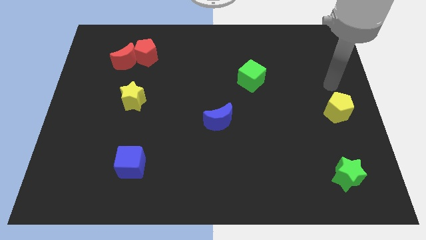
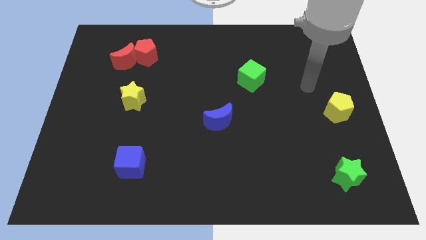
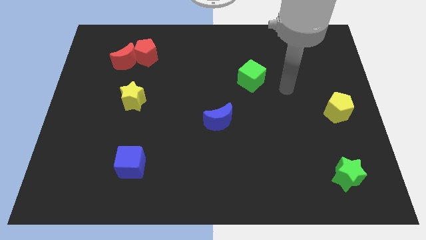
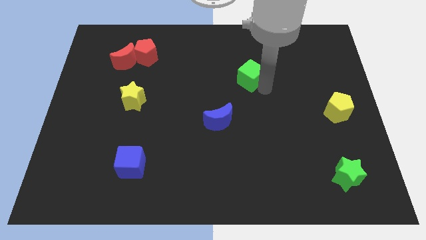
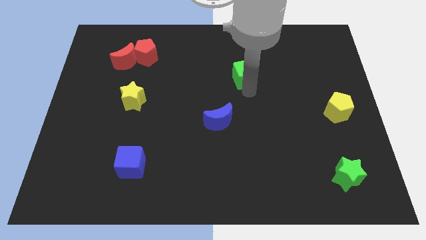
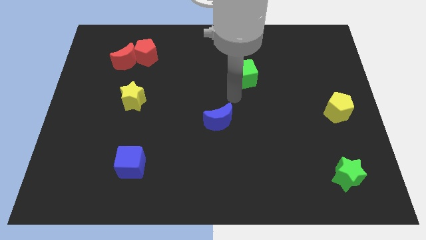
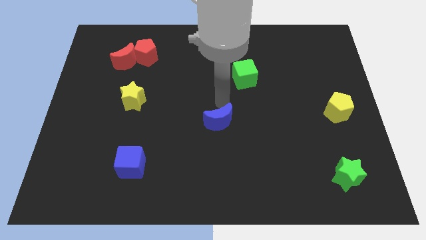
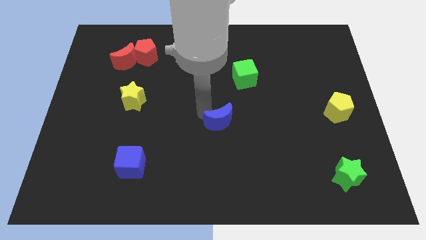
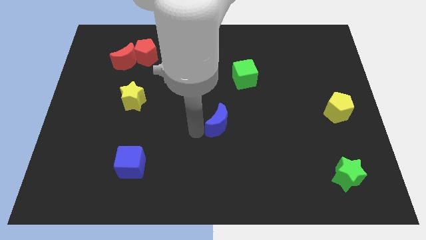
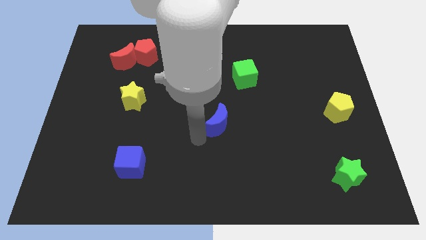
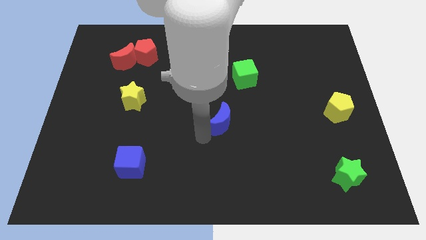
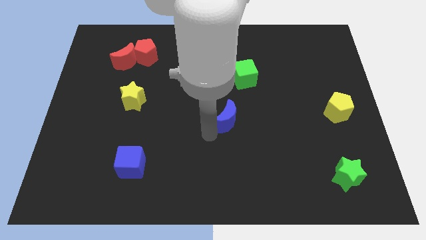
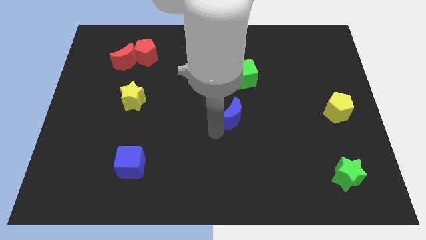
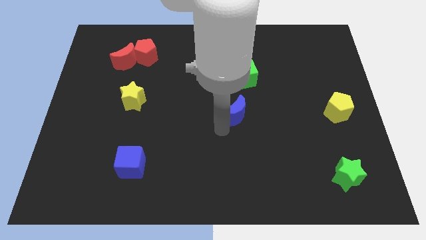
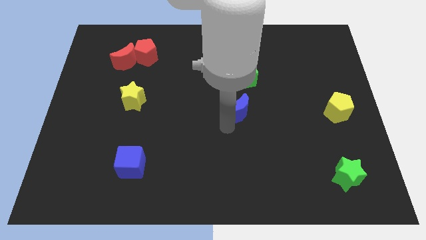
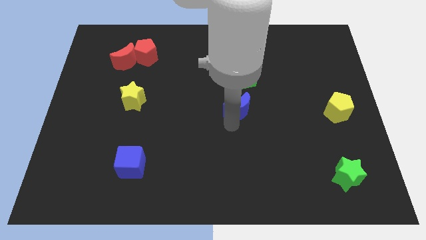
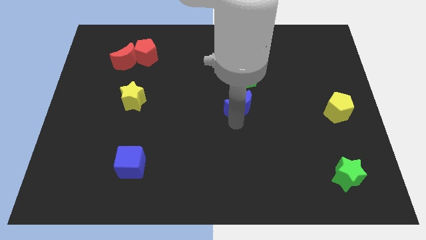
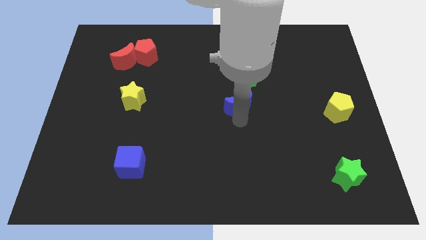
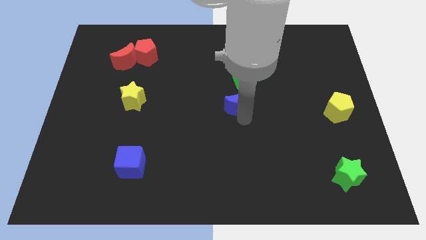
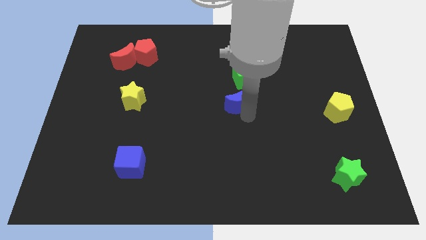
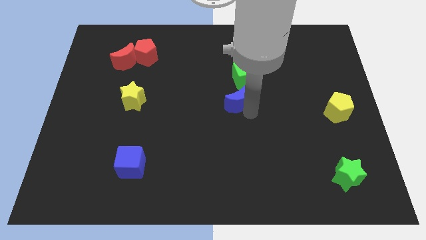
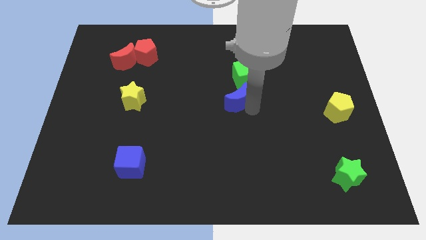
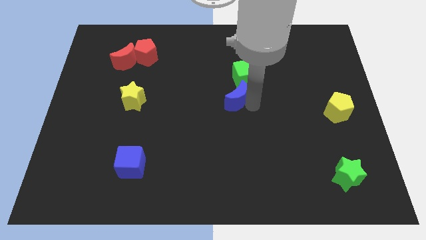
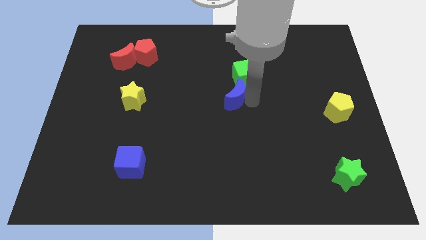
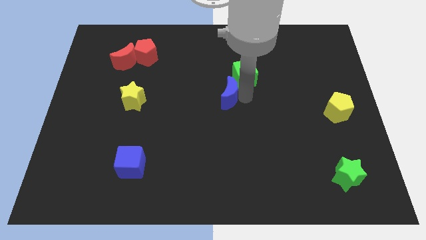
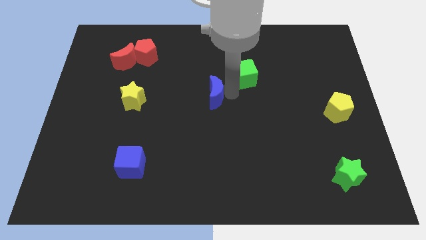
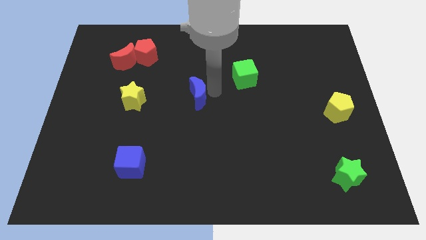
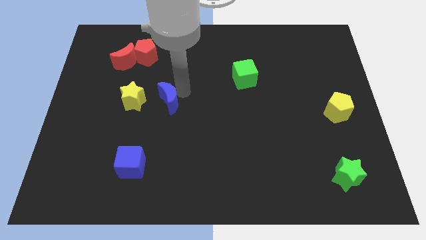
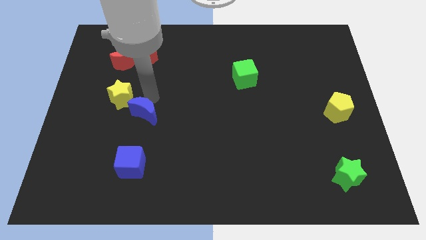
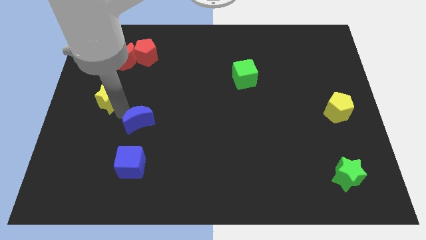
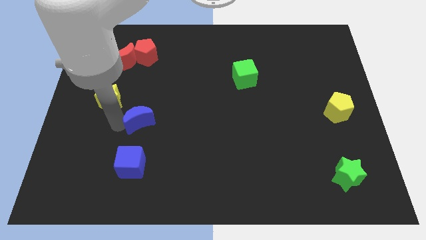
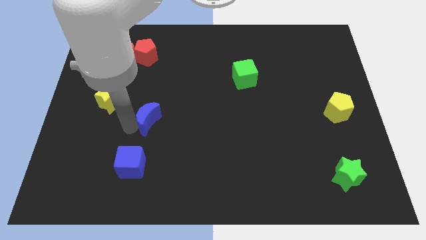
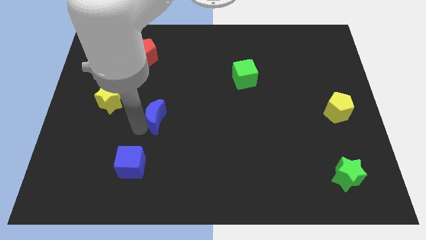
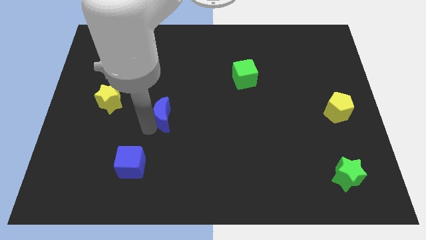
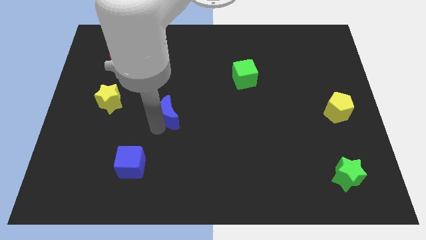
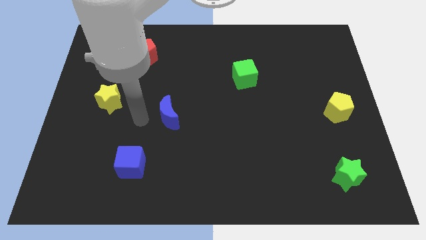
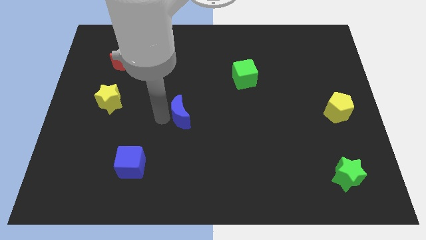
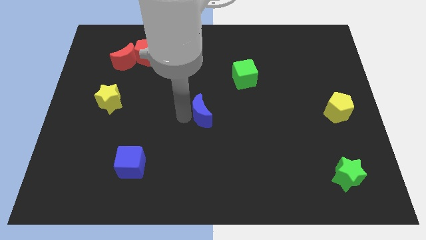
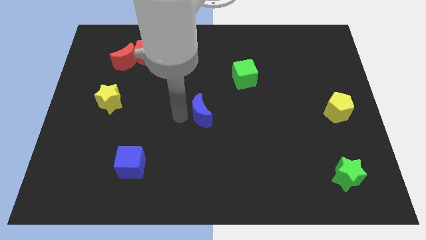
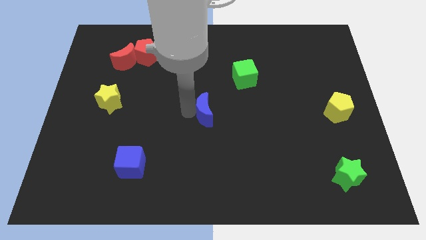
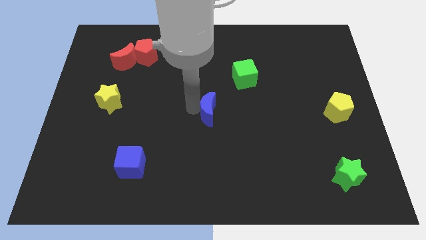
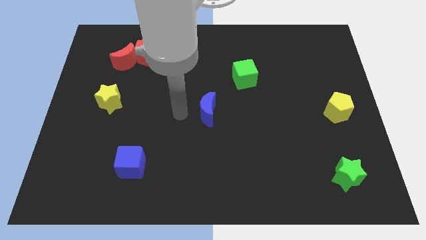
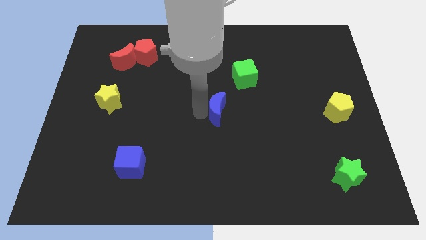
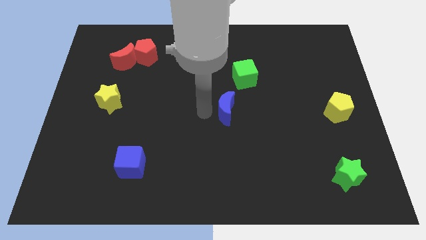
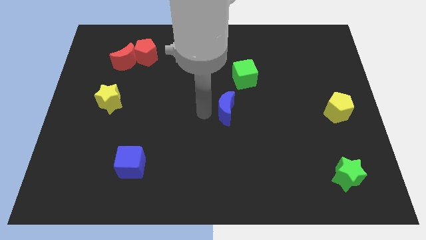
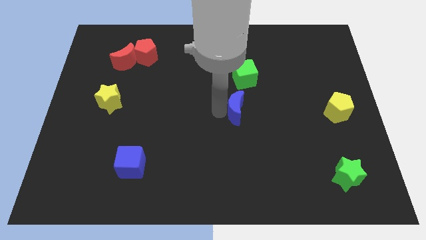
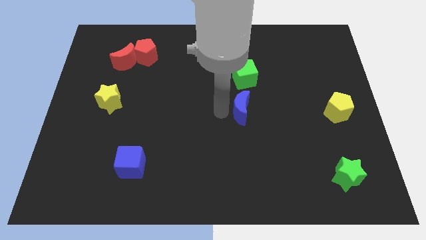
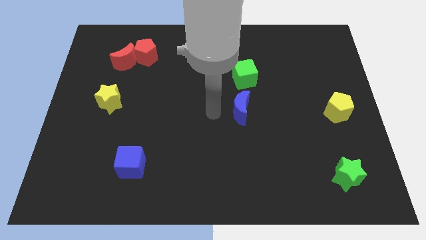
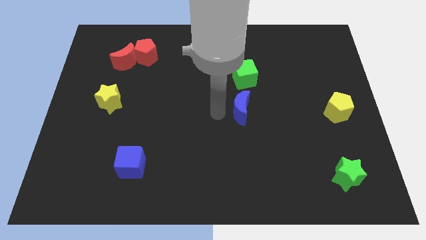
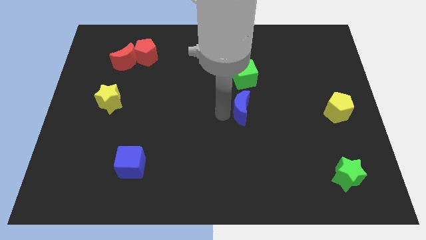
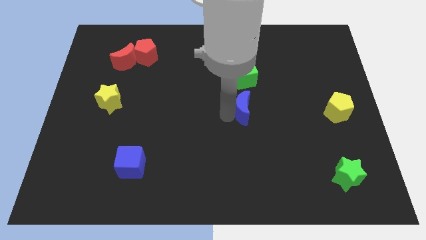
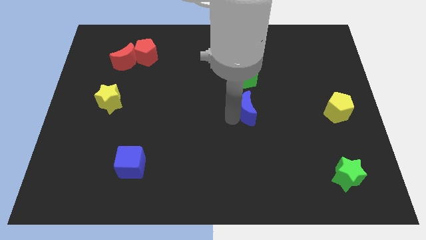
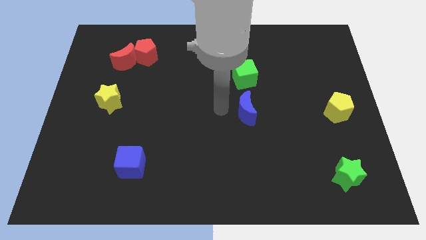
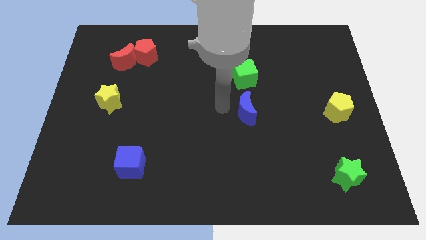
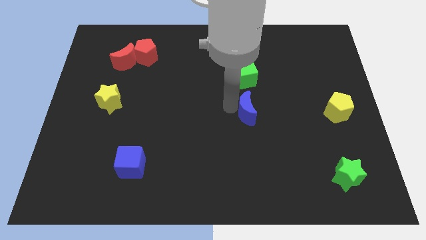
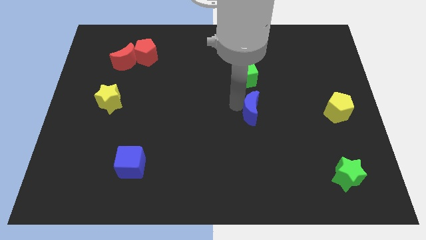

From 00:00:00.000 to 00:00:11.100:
move the blue moon right a bit

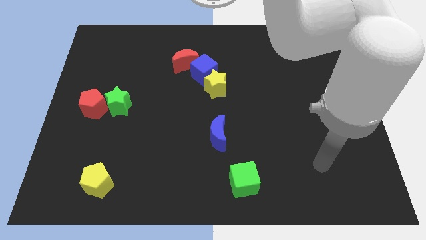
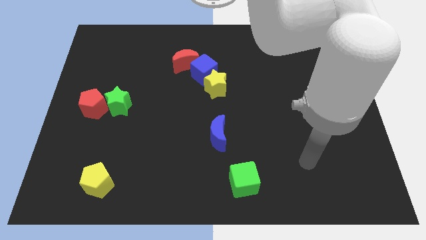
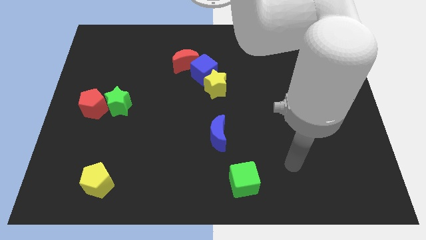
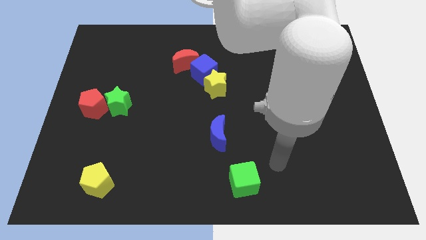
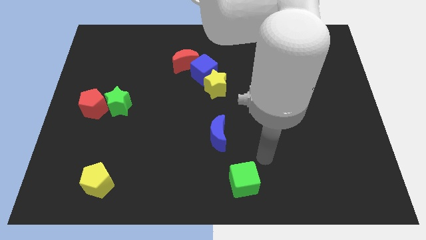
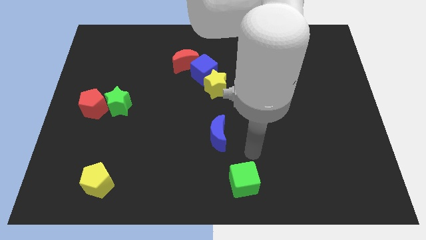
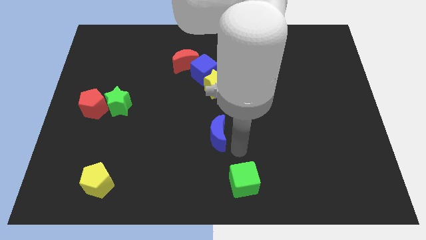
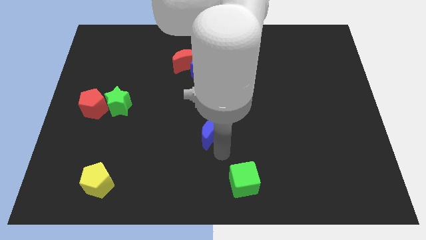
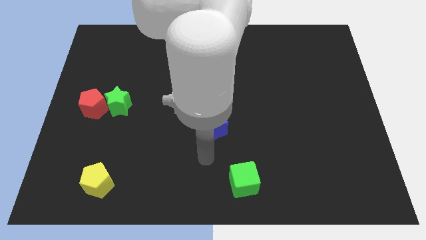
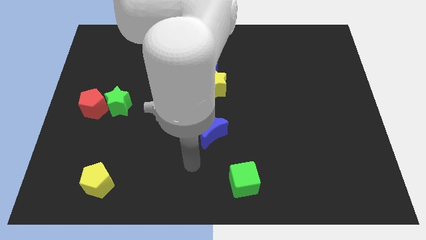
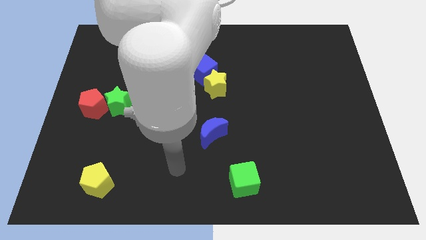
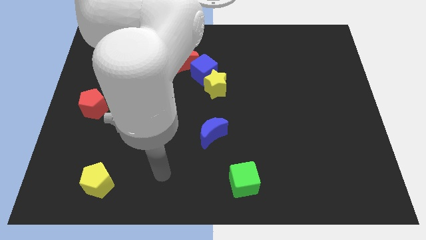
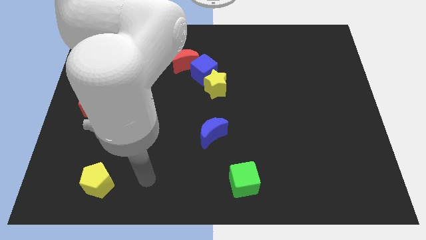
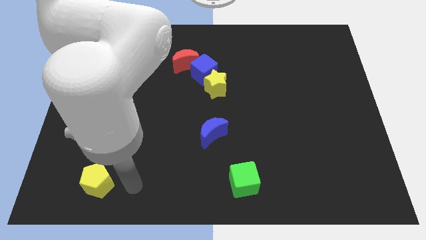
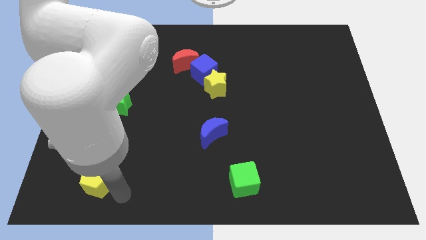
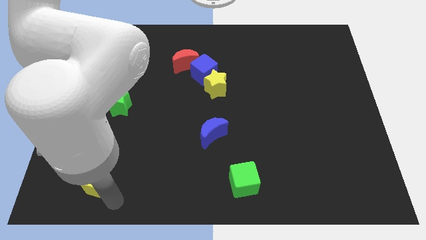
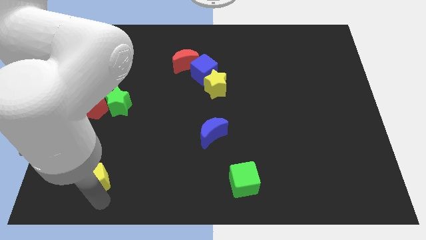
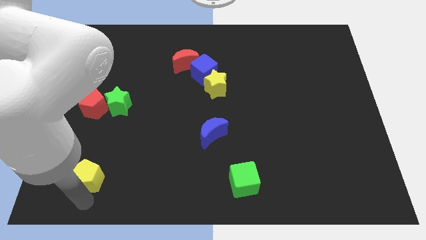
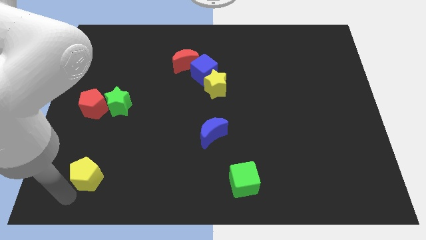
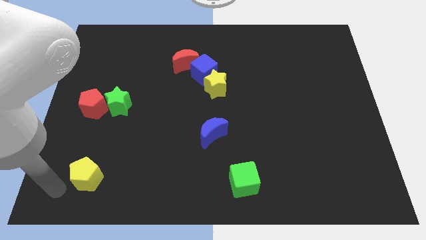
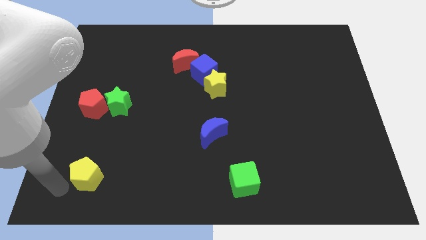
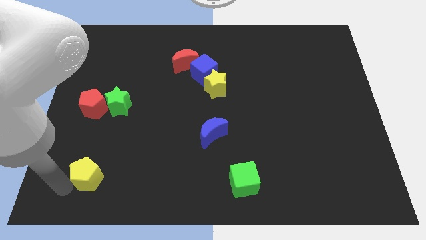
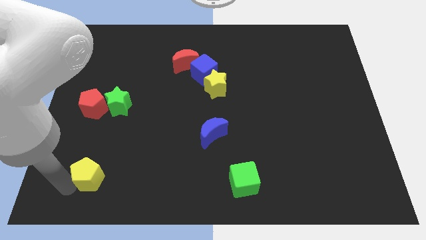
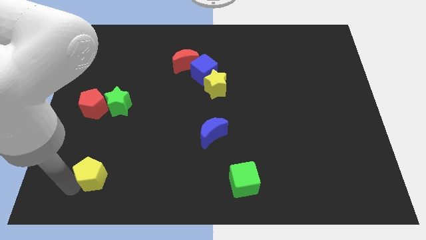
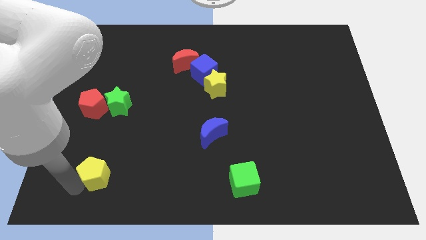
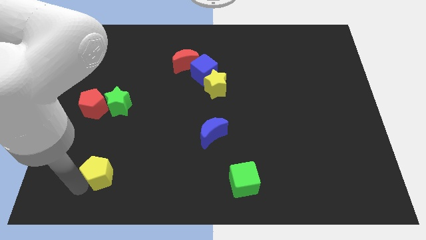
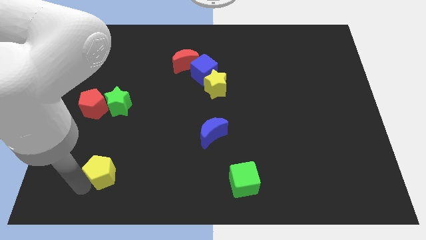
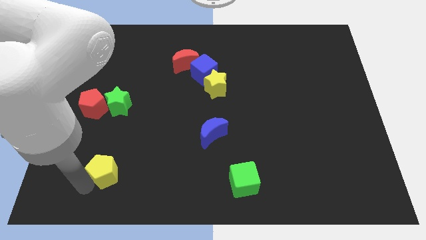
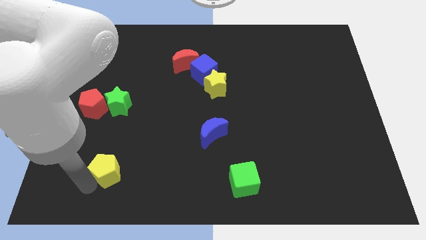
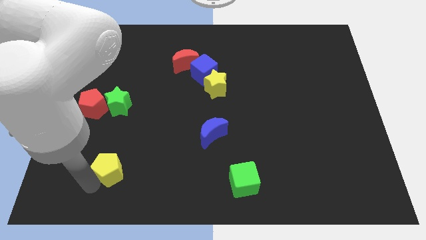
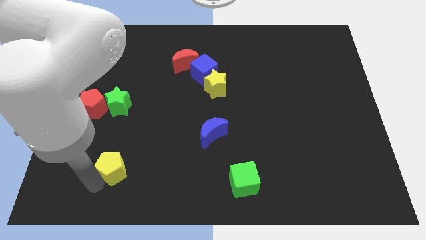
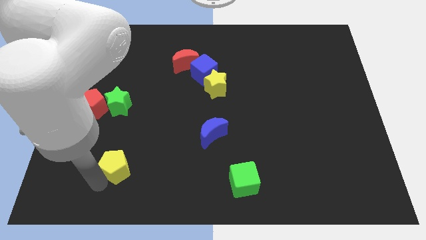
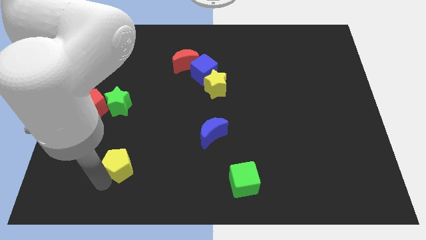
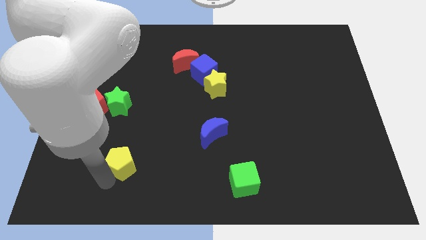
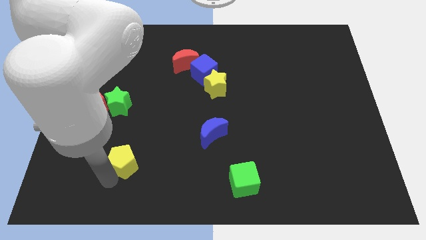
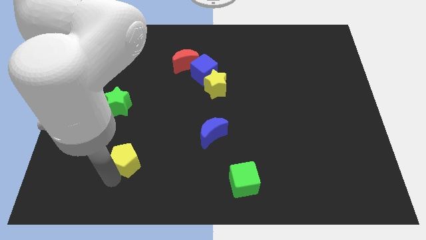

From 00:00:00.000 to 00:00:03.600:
slightly push the yellow pentagon upwards and to the right diagonally
